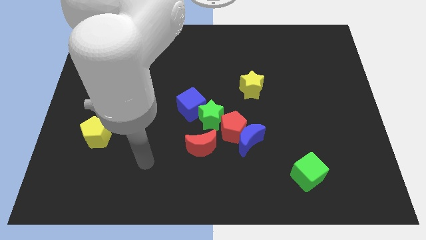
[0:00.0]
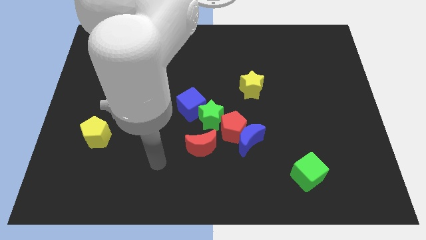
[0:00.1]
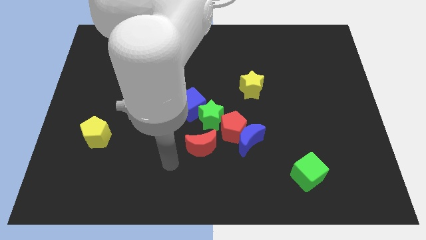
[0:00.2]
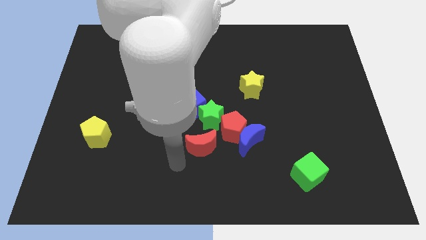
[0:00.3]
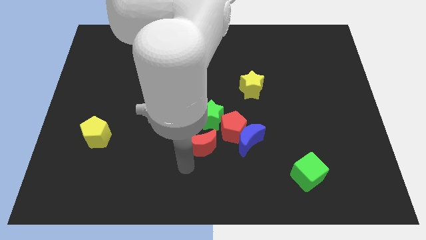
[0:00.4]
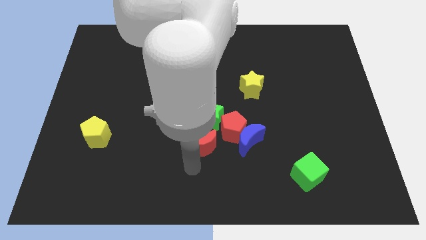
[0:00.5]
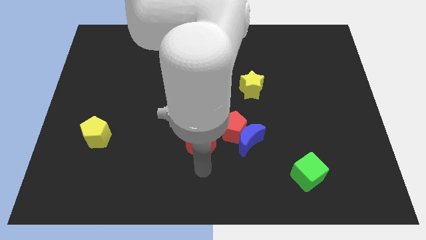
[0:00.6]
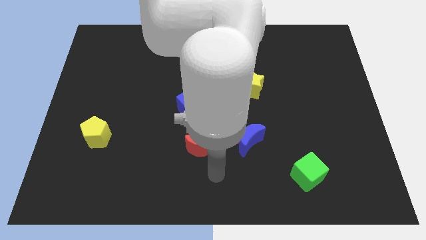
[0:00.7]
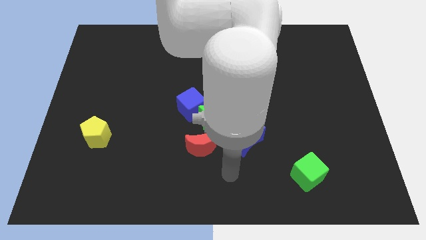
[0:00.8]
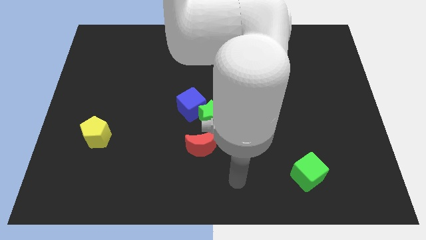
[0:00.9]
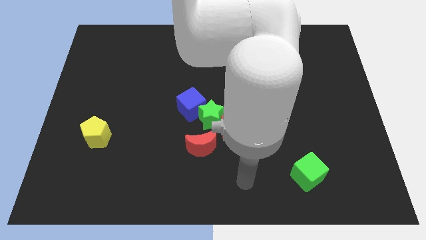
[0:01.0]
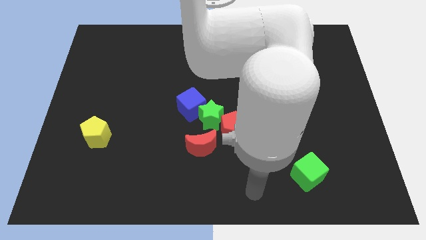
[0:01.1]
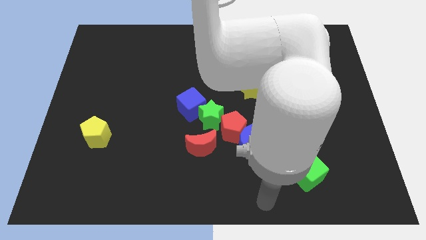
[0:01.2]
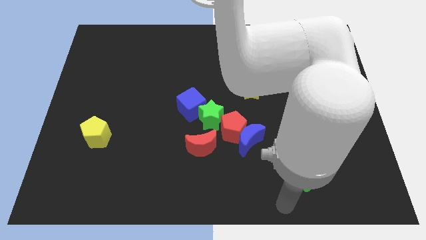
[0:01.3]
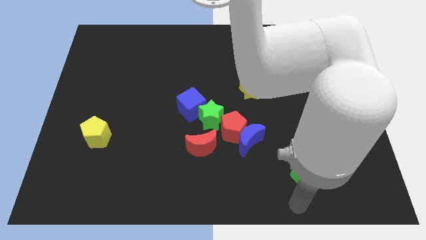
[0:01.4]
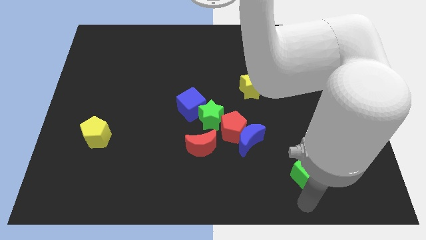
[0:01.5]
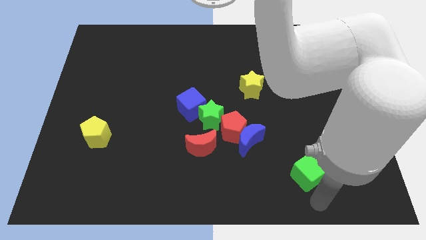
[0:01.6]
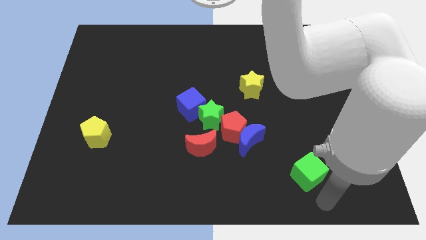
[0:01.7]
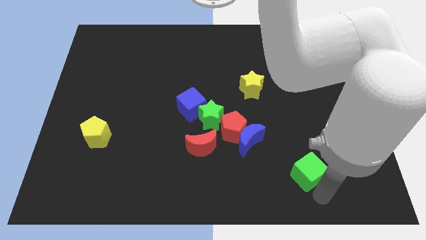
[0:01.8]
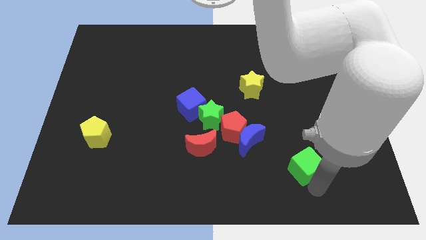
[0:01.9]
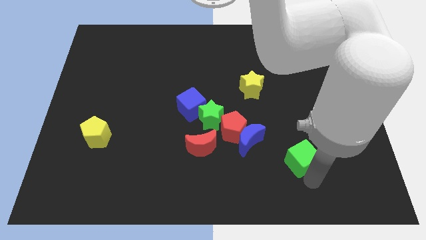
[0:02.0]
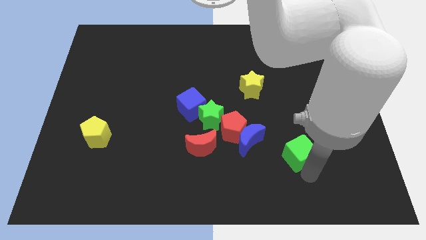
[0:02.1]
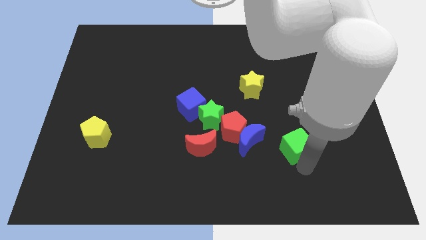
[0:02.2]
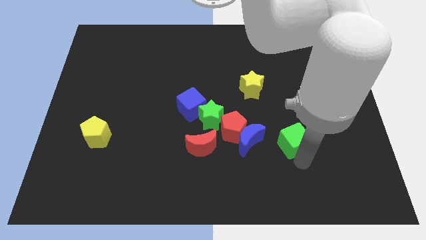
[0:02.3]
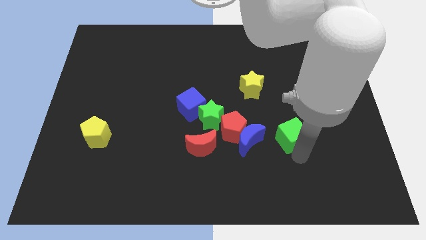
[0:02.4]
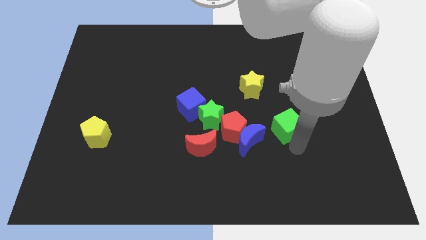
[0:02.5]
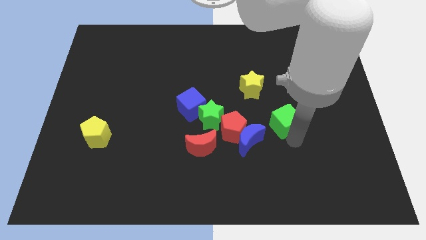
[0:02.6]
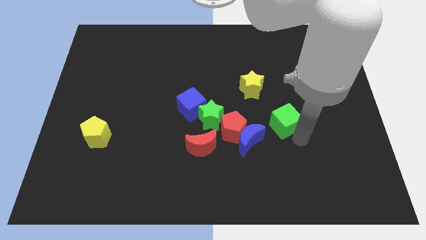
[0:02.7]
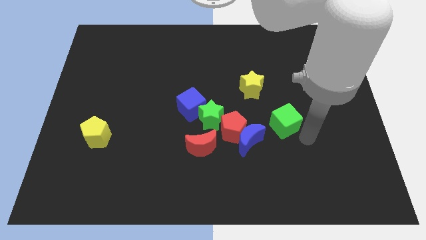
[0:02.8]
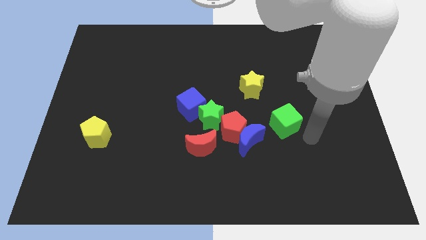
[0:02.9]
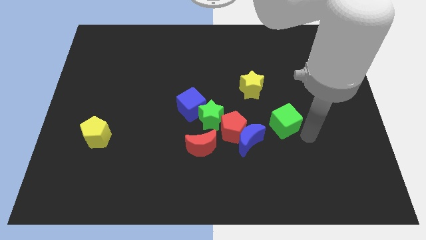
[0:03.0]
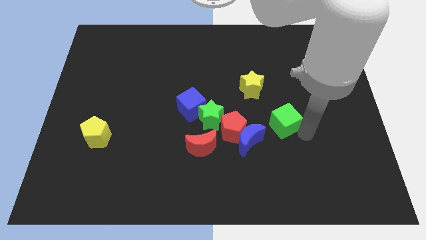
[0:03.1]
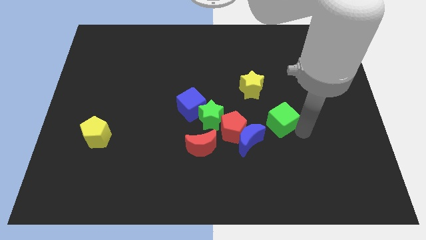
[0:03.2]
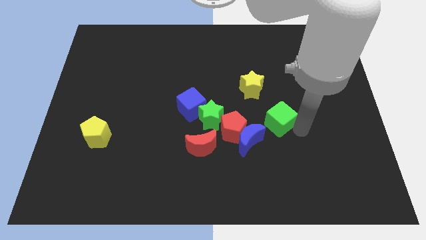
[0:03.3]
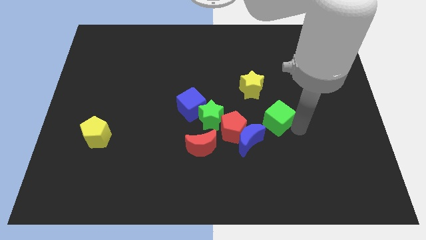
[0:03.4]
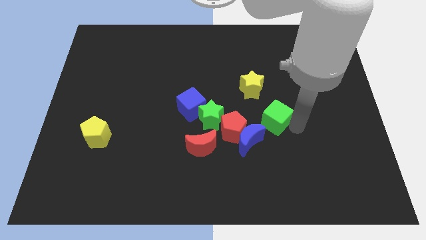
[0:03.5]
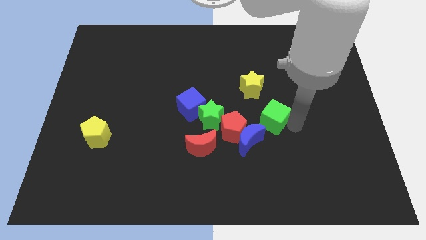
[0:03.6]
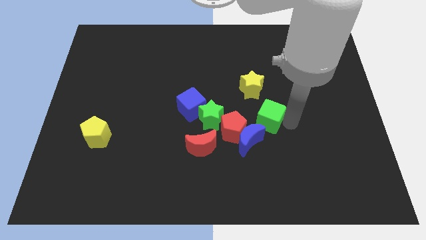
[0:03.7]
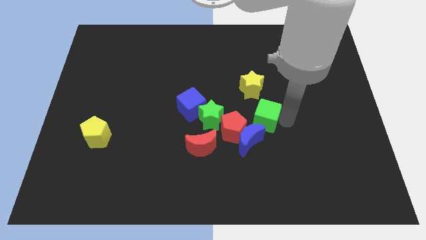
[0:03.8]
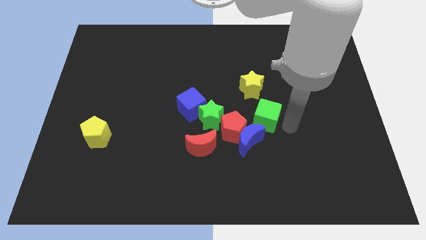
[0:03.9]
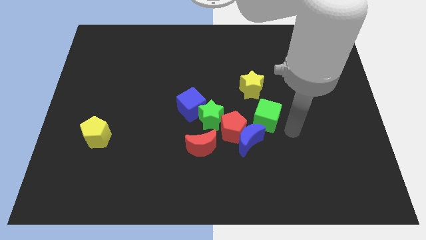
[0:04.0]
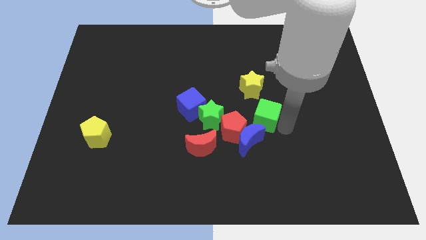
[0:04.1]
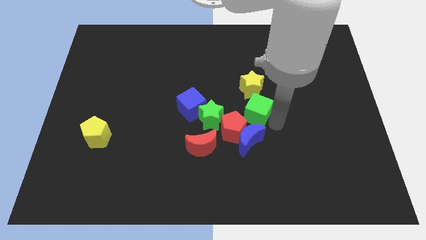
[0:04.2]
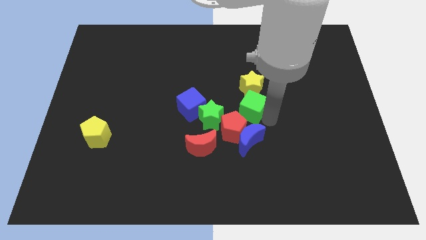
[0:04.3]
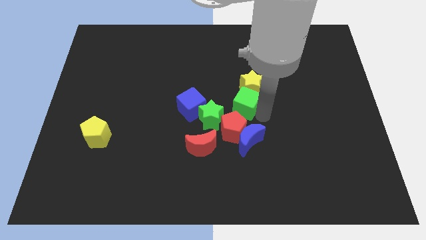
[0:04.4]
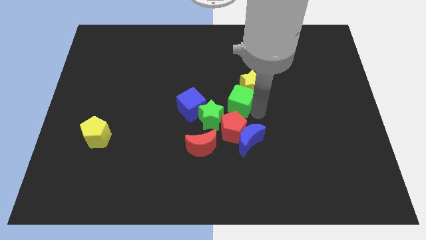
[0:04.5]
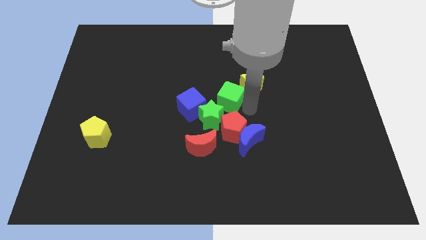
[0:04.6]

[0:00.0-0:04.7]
put the green cube to the top of the green star

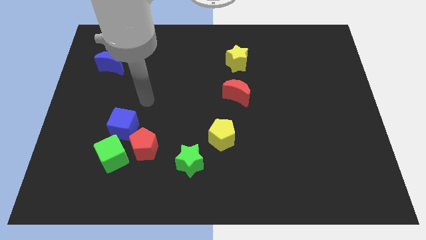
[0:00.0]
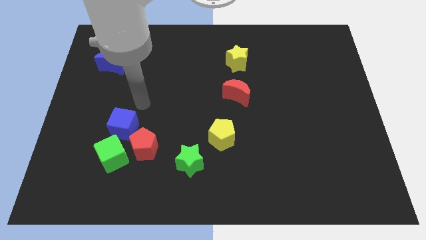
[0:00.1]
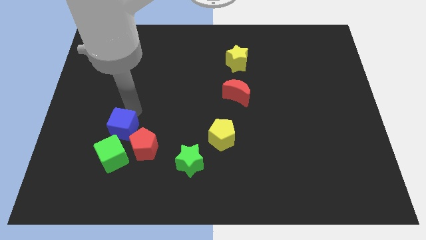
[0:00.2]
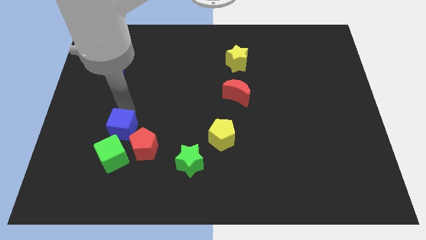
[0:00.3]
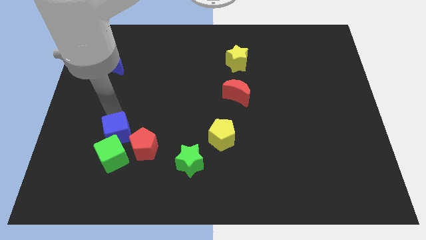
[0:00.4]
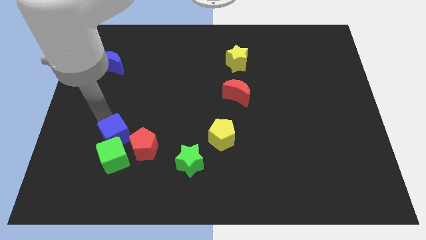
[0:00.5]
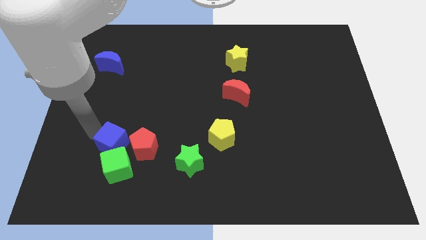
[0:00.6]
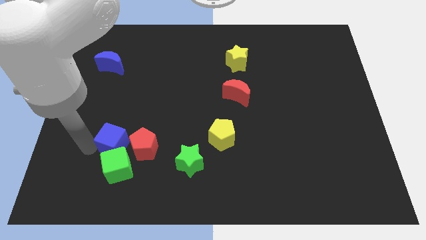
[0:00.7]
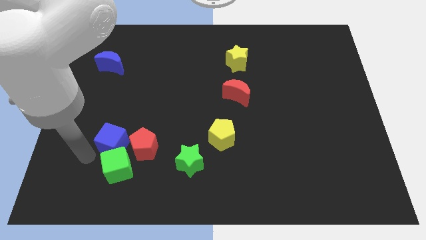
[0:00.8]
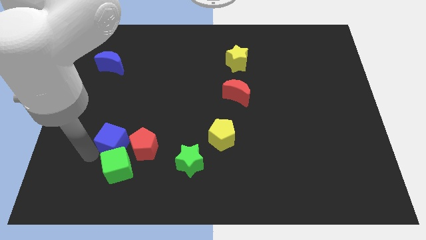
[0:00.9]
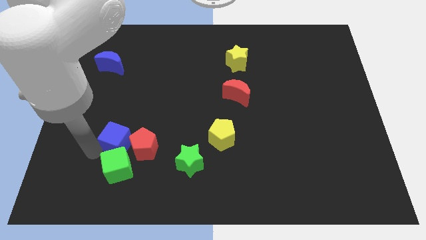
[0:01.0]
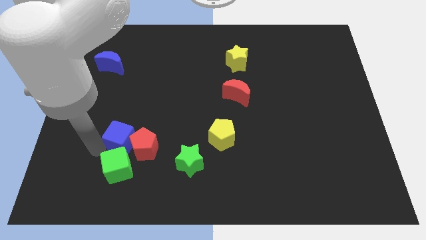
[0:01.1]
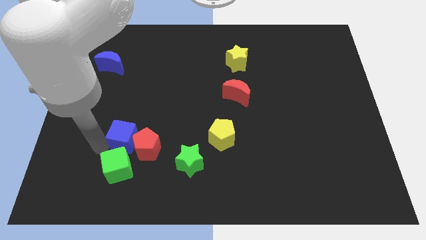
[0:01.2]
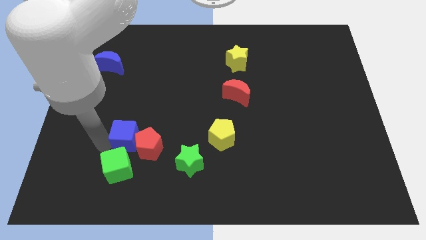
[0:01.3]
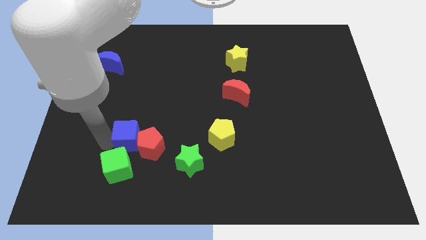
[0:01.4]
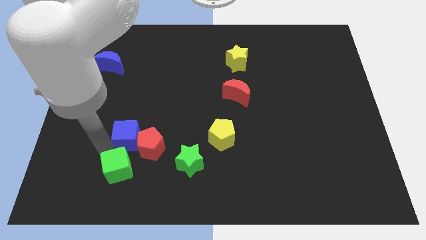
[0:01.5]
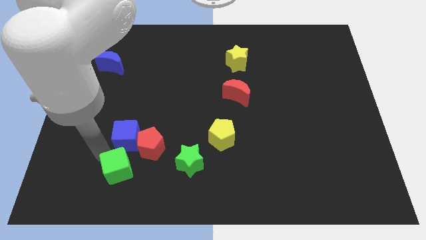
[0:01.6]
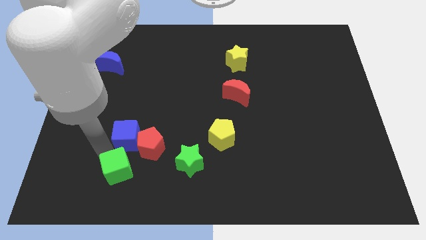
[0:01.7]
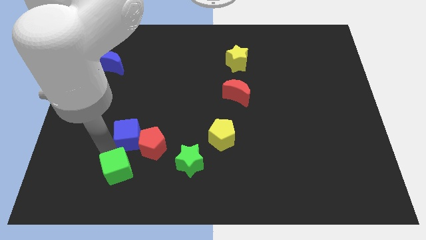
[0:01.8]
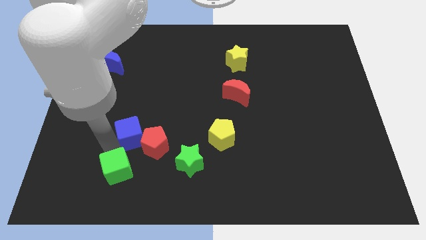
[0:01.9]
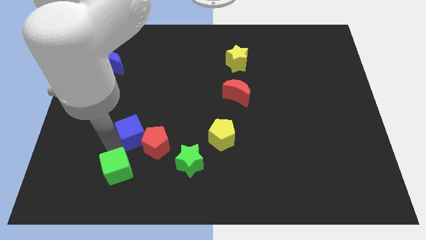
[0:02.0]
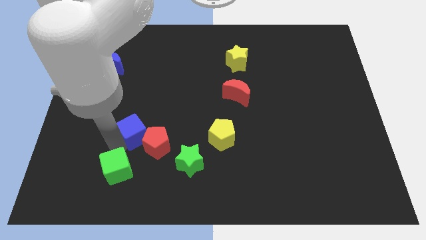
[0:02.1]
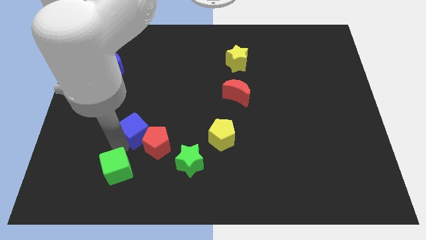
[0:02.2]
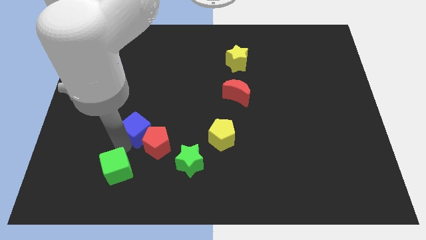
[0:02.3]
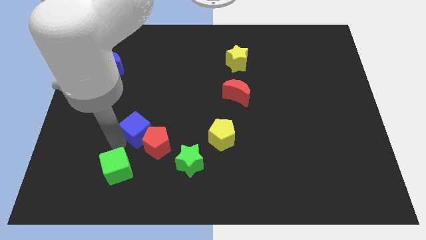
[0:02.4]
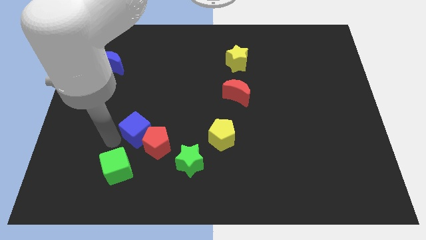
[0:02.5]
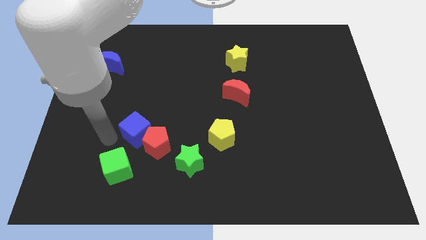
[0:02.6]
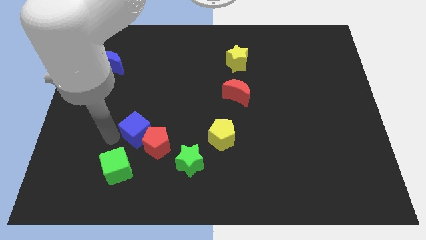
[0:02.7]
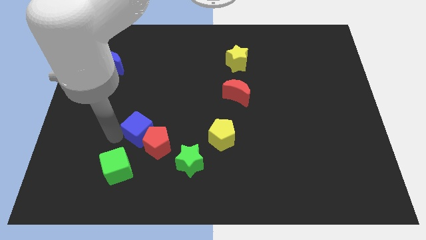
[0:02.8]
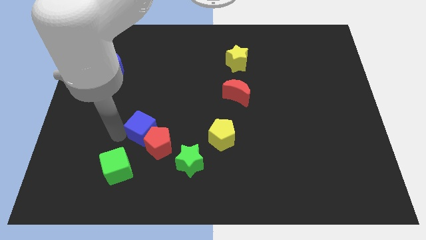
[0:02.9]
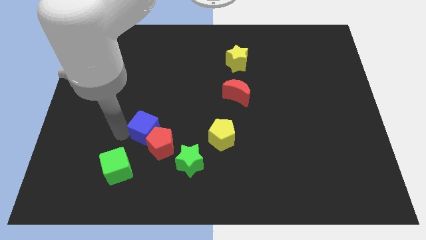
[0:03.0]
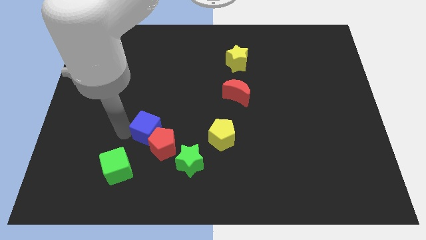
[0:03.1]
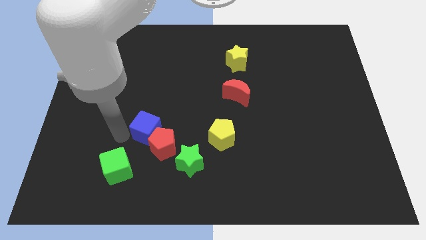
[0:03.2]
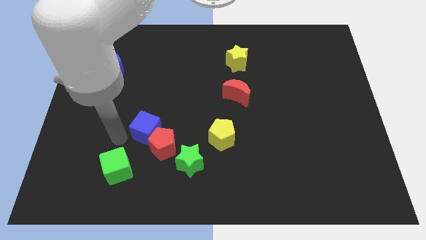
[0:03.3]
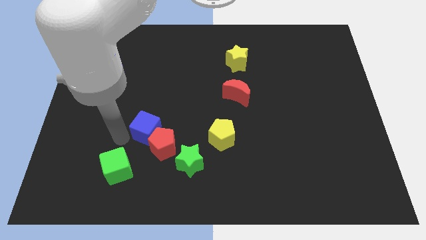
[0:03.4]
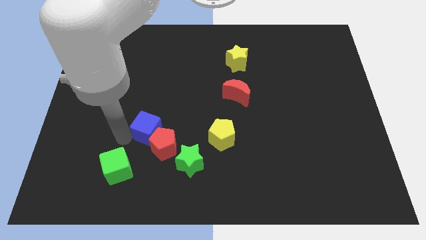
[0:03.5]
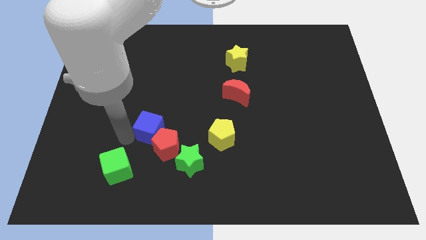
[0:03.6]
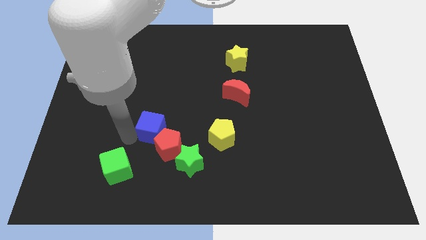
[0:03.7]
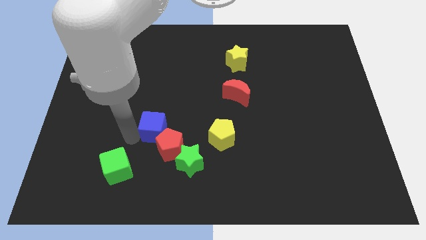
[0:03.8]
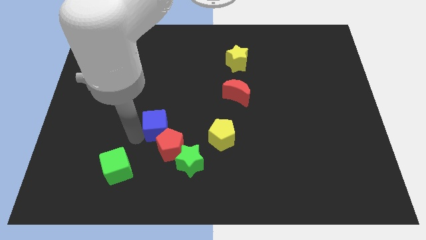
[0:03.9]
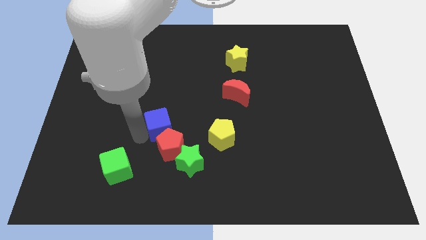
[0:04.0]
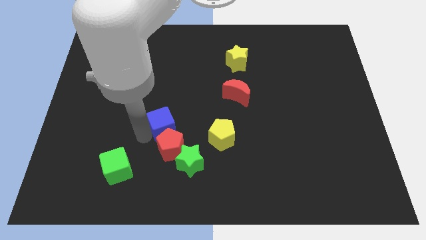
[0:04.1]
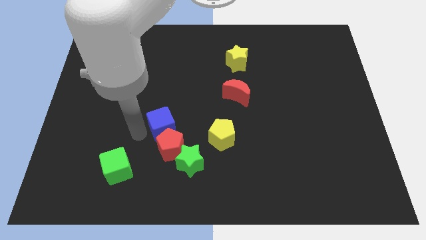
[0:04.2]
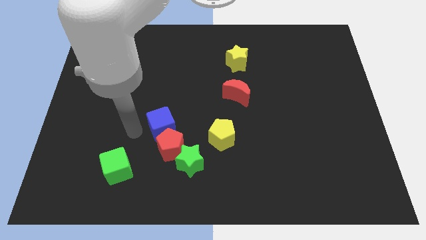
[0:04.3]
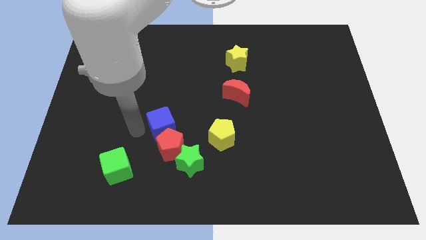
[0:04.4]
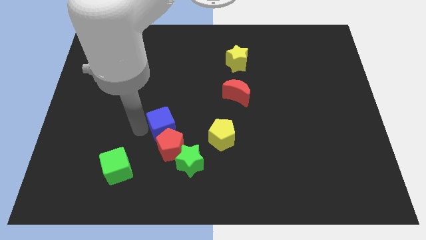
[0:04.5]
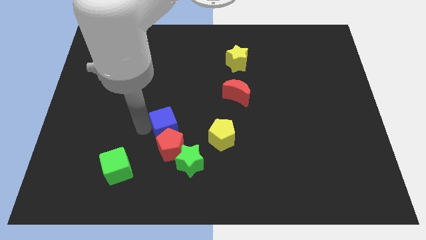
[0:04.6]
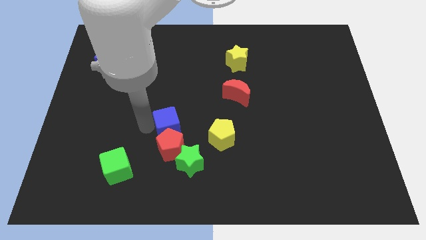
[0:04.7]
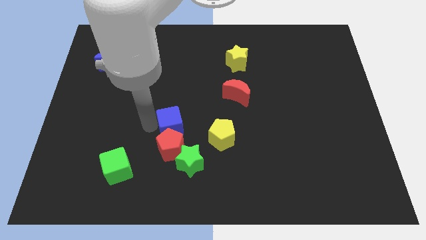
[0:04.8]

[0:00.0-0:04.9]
slide the blue cube to the top side of the green star
